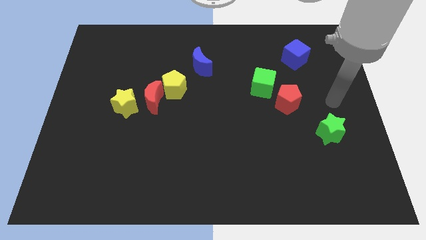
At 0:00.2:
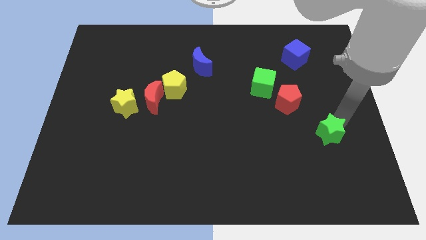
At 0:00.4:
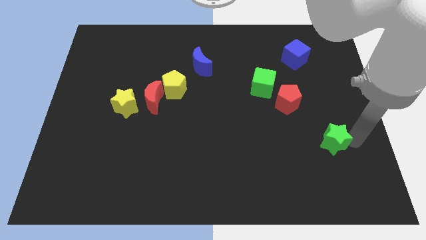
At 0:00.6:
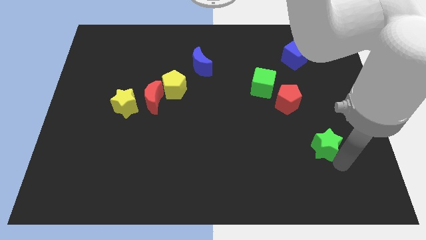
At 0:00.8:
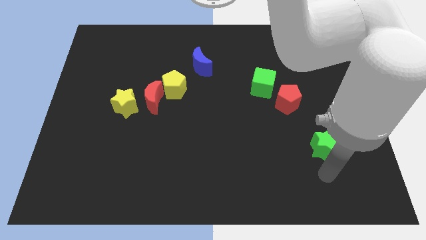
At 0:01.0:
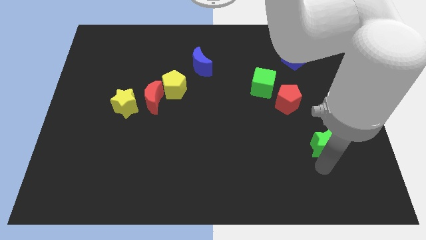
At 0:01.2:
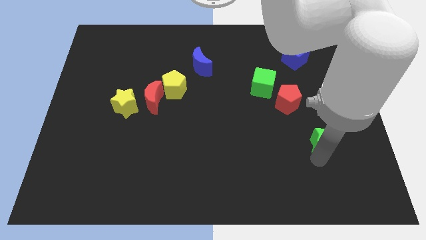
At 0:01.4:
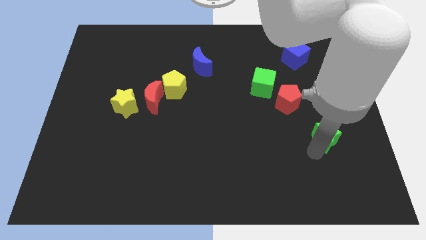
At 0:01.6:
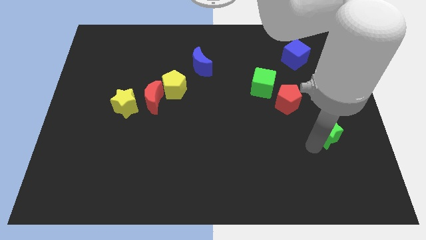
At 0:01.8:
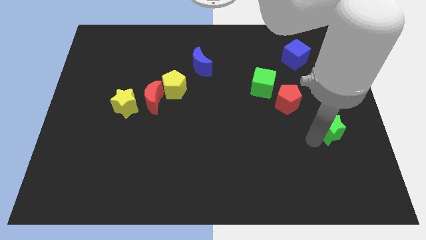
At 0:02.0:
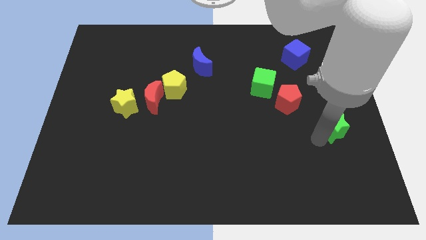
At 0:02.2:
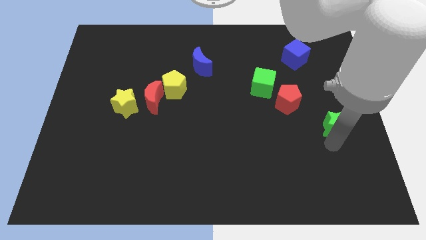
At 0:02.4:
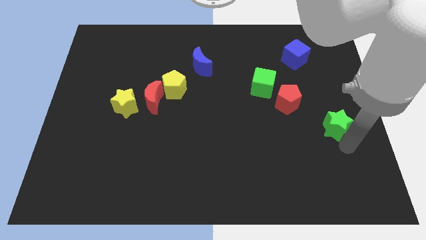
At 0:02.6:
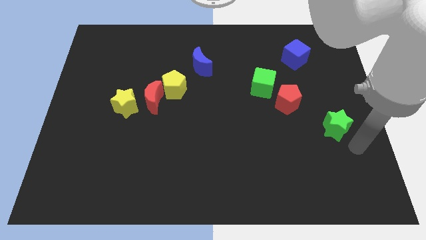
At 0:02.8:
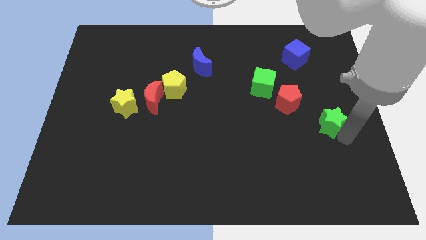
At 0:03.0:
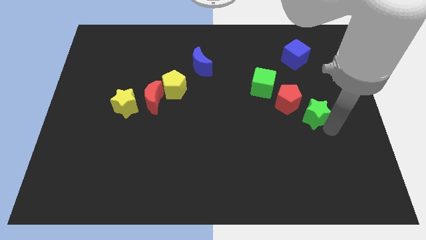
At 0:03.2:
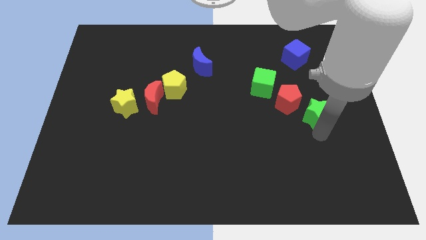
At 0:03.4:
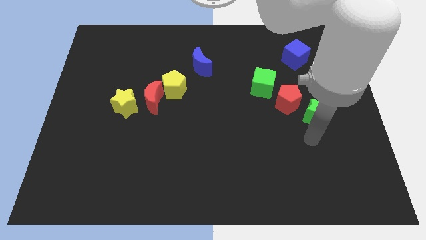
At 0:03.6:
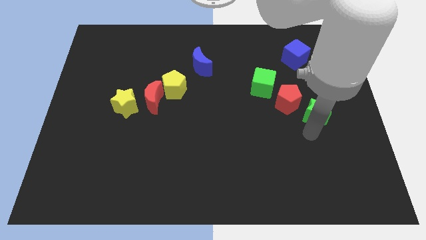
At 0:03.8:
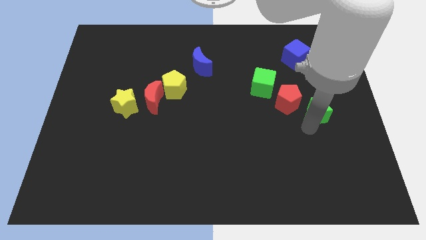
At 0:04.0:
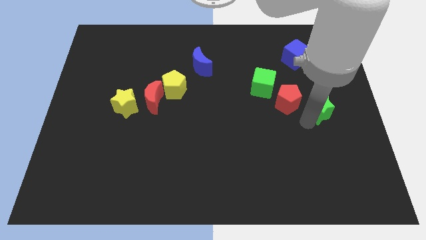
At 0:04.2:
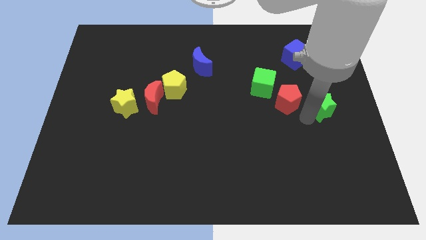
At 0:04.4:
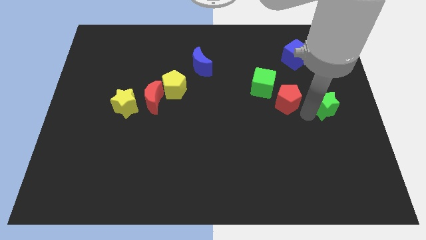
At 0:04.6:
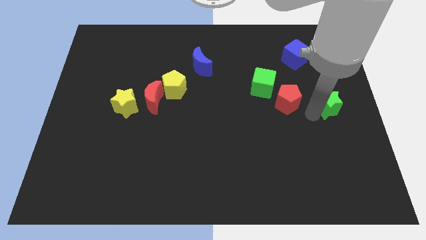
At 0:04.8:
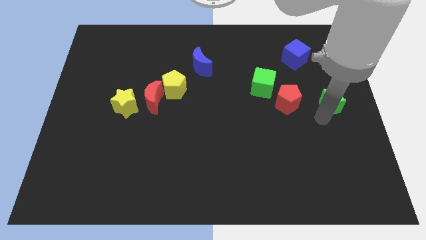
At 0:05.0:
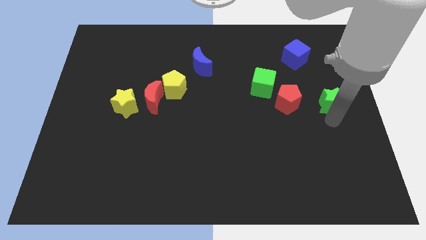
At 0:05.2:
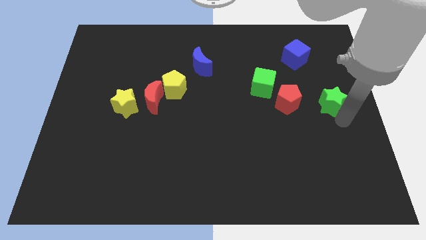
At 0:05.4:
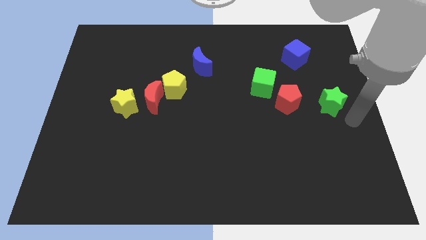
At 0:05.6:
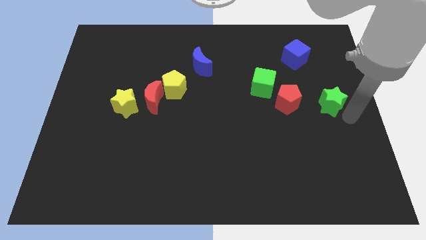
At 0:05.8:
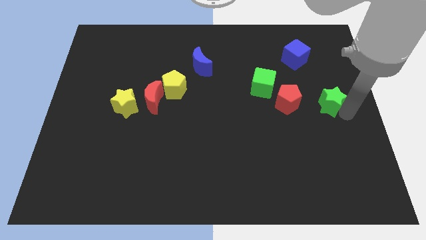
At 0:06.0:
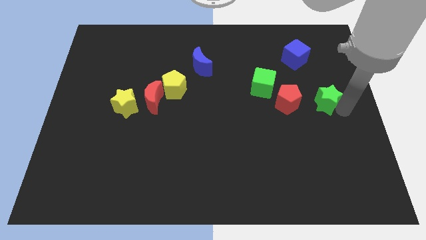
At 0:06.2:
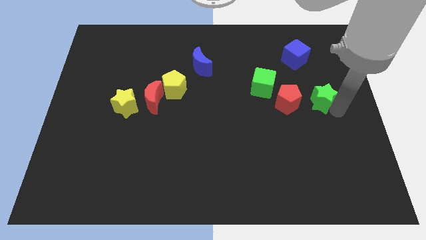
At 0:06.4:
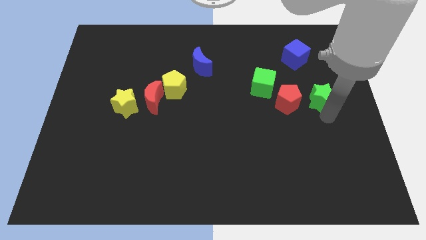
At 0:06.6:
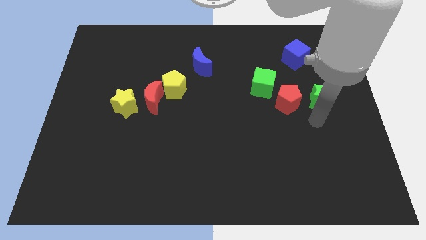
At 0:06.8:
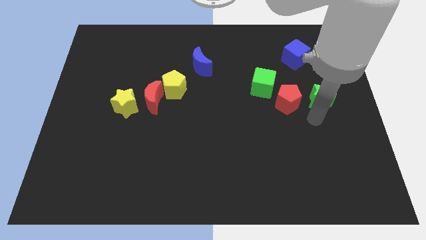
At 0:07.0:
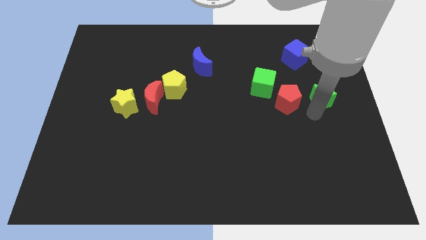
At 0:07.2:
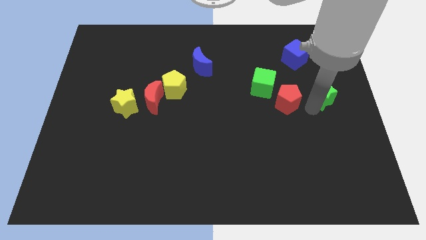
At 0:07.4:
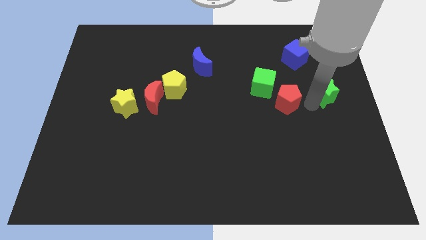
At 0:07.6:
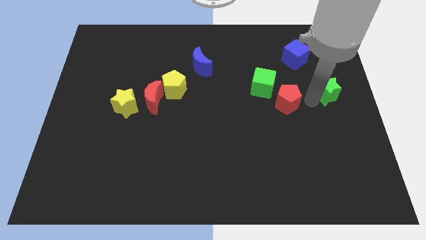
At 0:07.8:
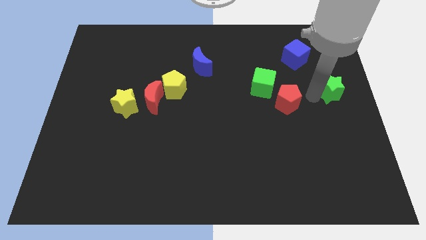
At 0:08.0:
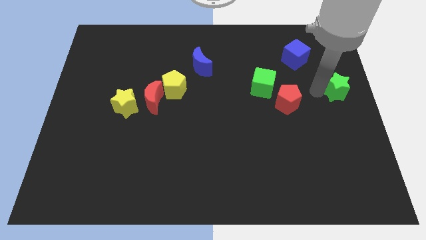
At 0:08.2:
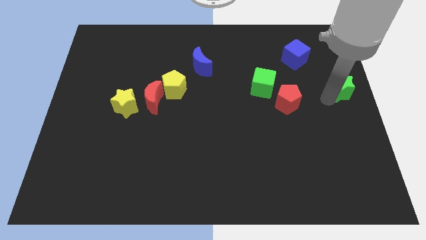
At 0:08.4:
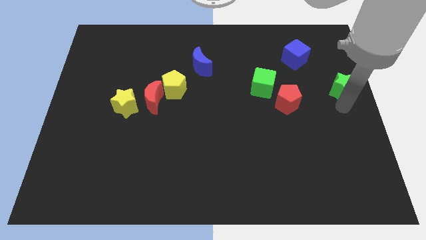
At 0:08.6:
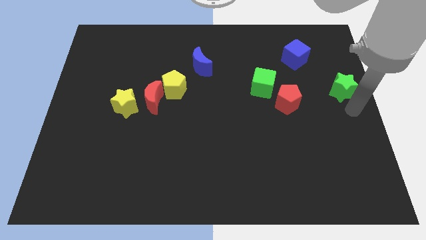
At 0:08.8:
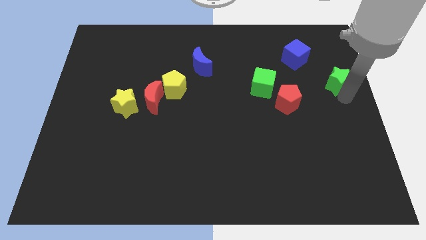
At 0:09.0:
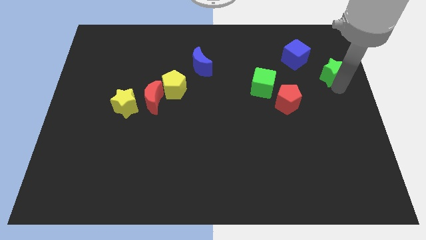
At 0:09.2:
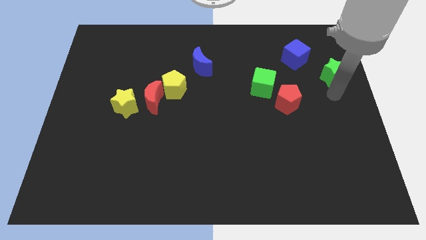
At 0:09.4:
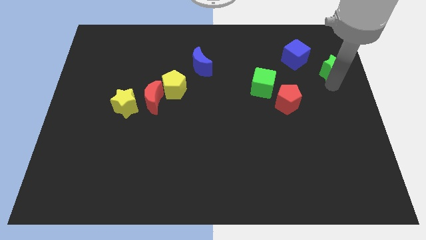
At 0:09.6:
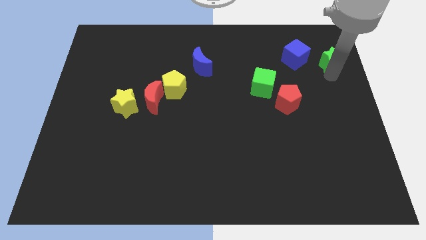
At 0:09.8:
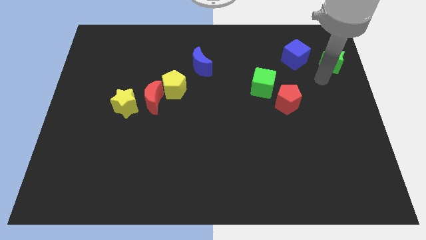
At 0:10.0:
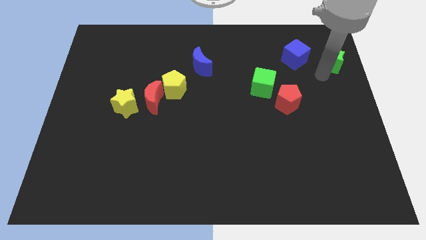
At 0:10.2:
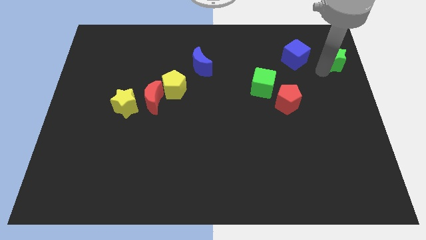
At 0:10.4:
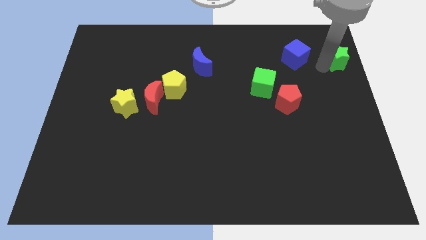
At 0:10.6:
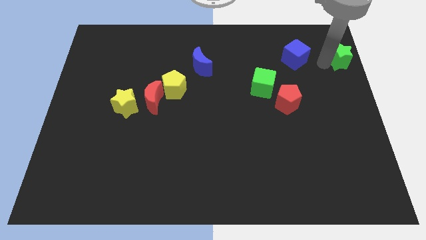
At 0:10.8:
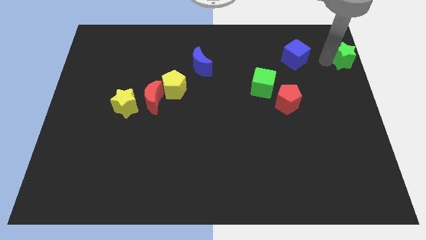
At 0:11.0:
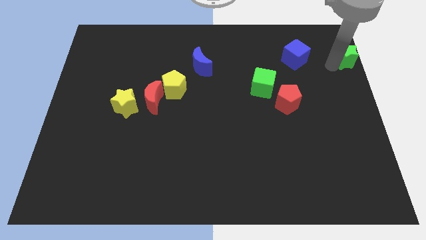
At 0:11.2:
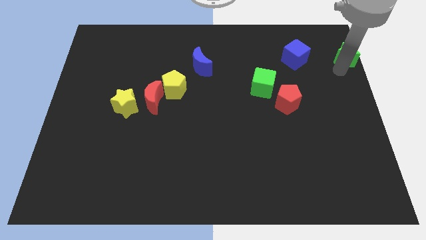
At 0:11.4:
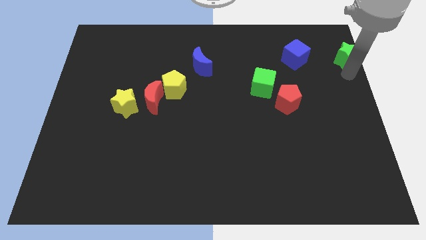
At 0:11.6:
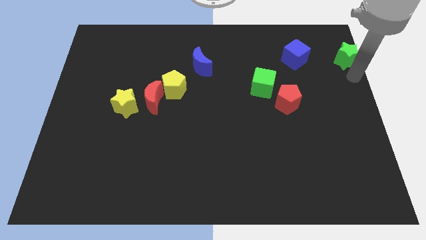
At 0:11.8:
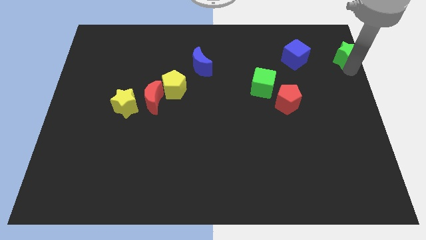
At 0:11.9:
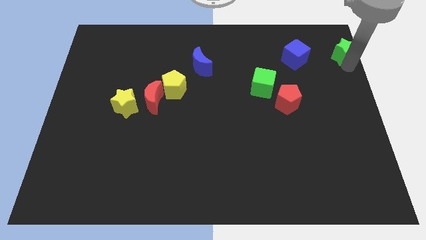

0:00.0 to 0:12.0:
slide the green star to the top right corner
